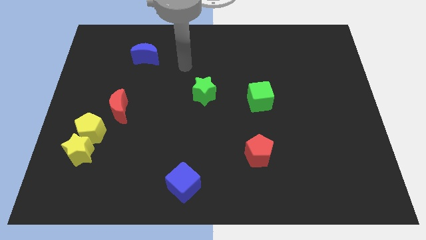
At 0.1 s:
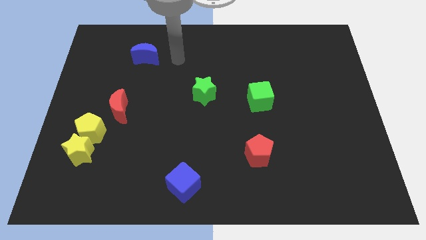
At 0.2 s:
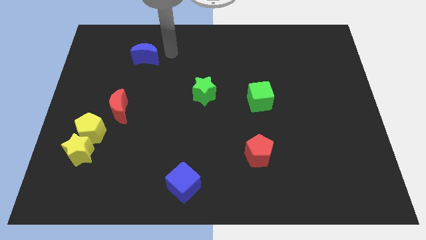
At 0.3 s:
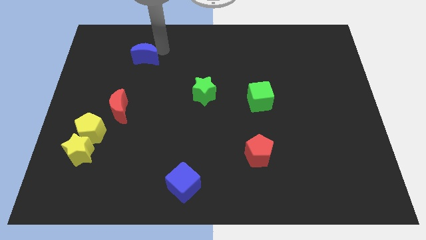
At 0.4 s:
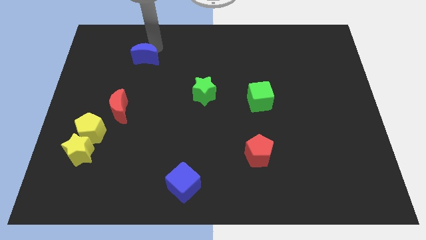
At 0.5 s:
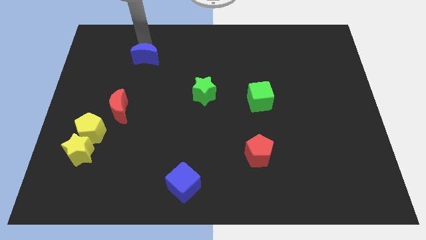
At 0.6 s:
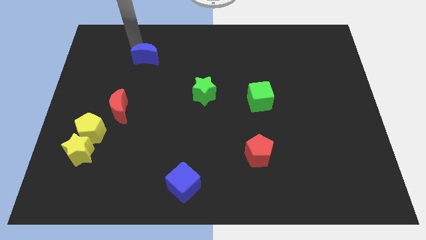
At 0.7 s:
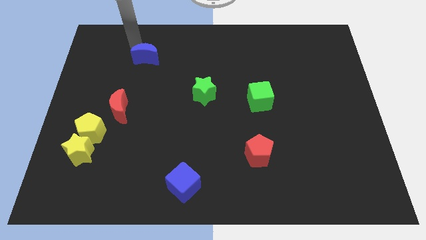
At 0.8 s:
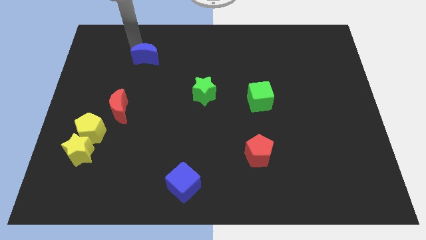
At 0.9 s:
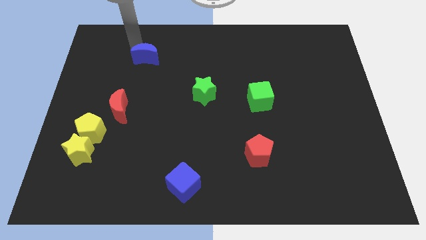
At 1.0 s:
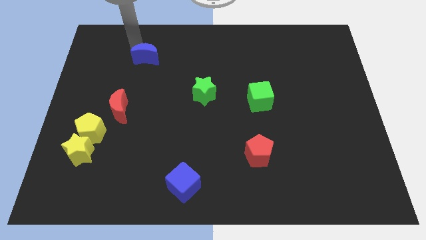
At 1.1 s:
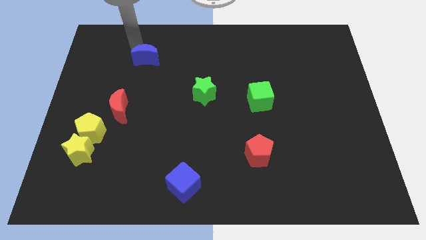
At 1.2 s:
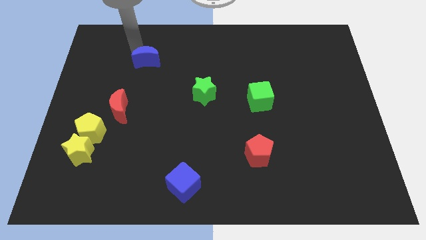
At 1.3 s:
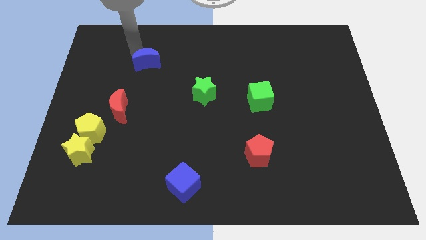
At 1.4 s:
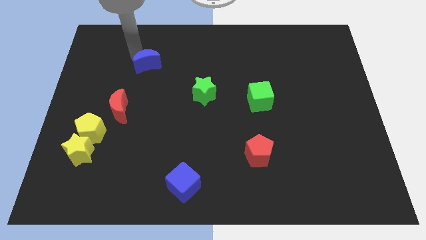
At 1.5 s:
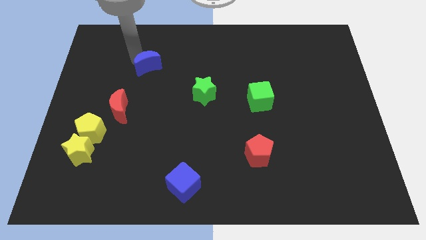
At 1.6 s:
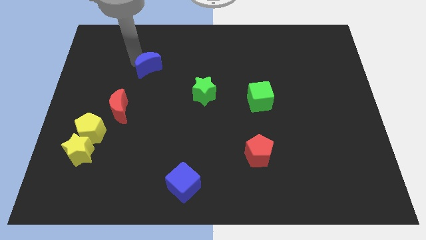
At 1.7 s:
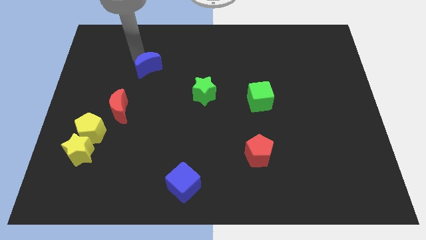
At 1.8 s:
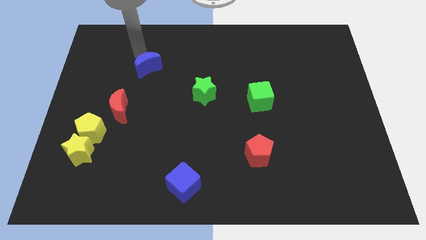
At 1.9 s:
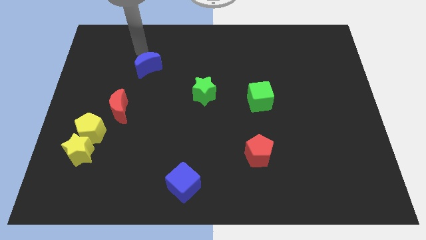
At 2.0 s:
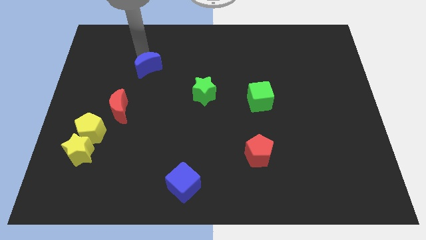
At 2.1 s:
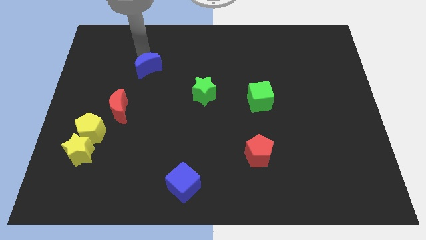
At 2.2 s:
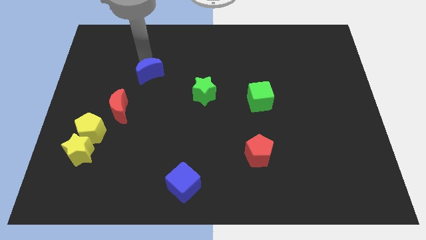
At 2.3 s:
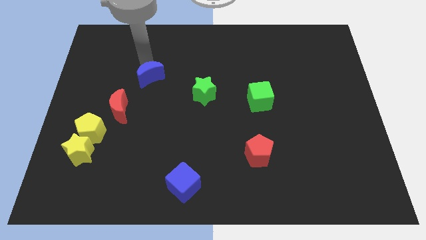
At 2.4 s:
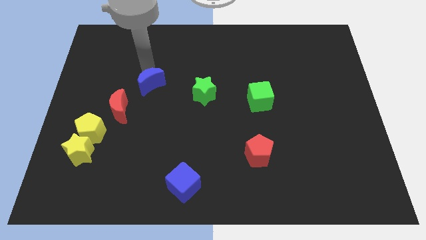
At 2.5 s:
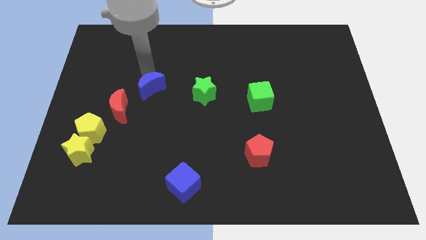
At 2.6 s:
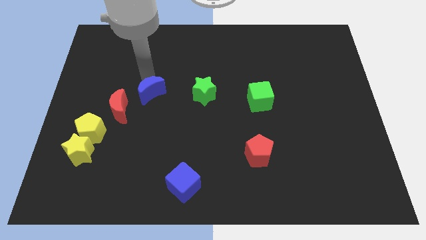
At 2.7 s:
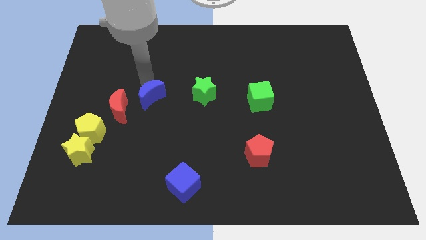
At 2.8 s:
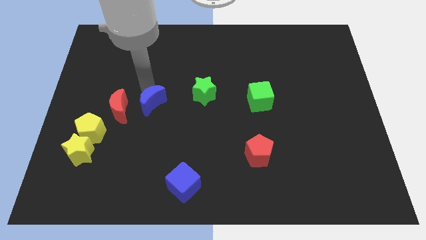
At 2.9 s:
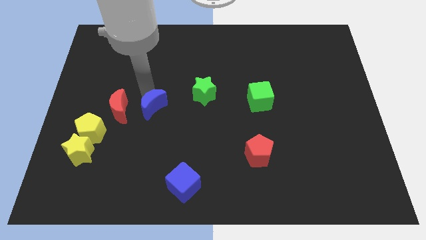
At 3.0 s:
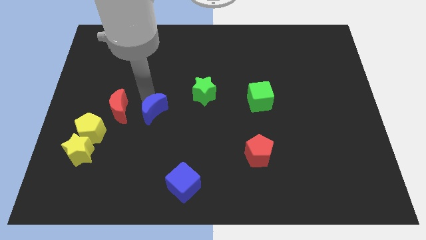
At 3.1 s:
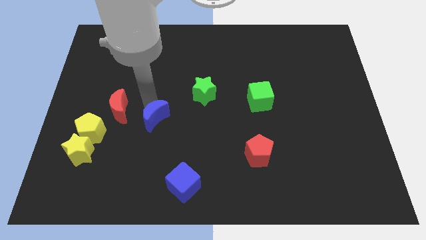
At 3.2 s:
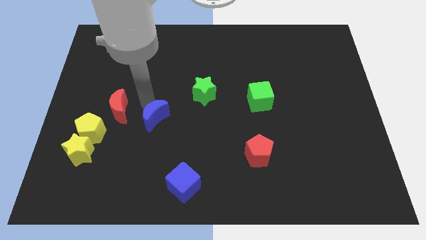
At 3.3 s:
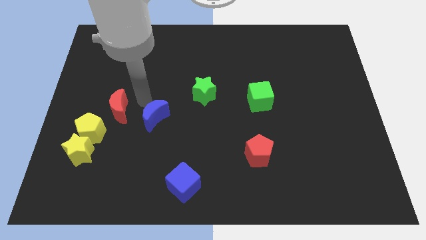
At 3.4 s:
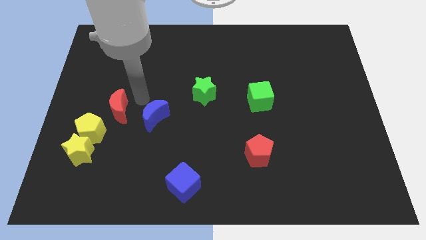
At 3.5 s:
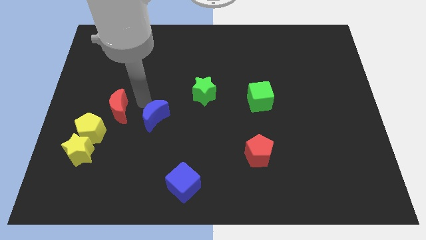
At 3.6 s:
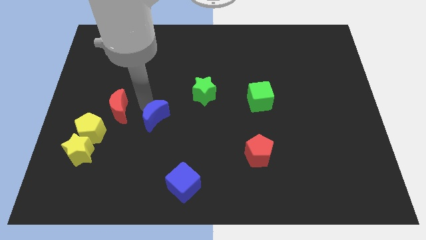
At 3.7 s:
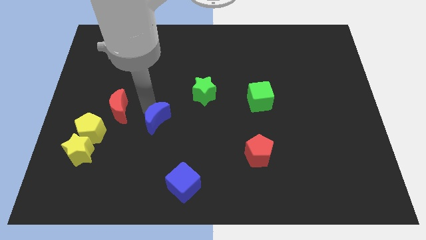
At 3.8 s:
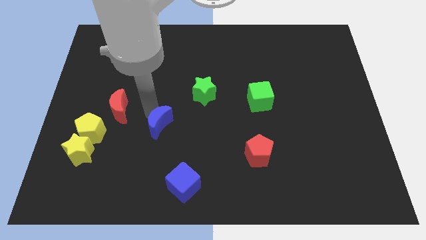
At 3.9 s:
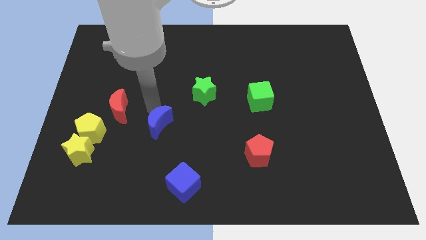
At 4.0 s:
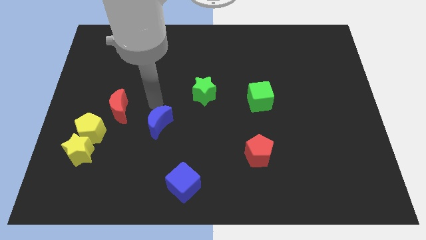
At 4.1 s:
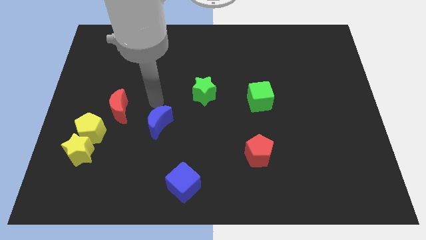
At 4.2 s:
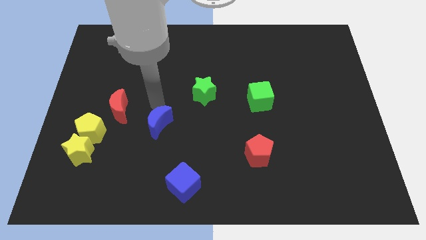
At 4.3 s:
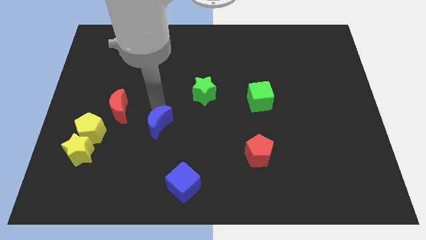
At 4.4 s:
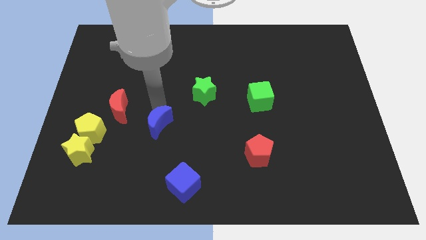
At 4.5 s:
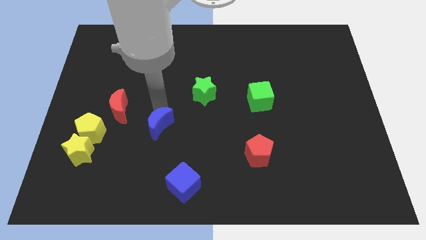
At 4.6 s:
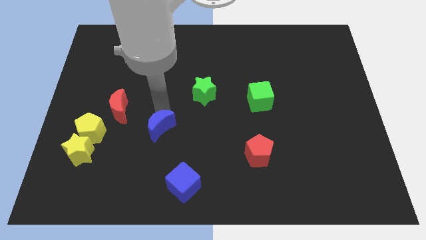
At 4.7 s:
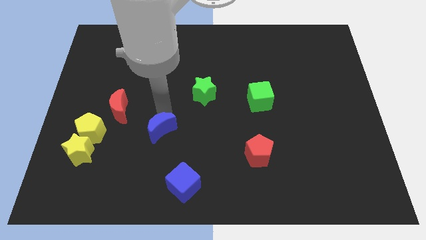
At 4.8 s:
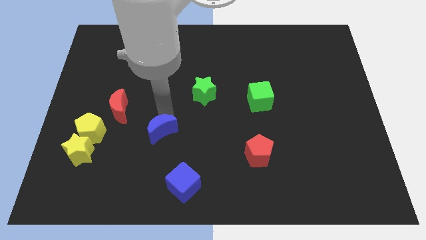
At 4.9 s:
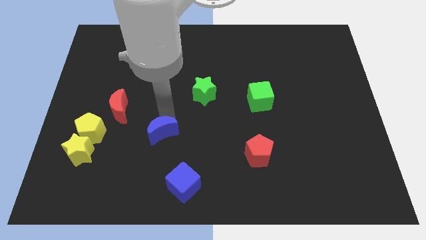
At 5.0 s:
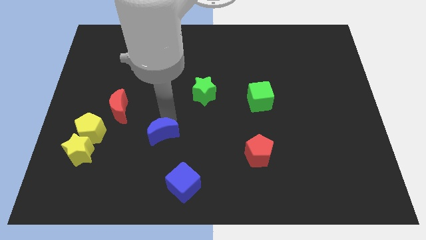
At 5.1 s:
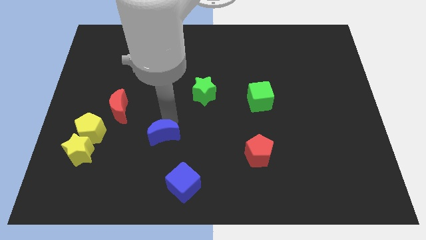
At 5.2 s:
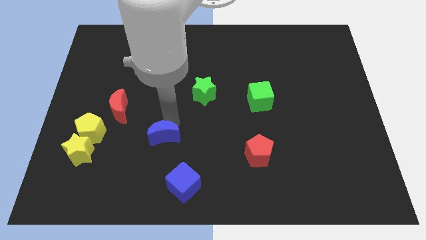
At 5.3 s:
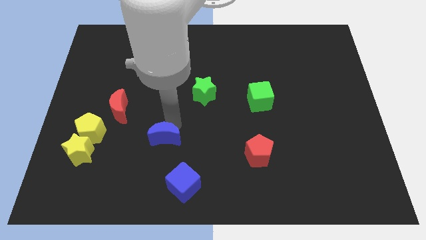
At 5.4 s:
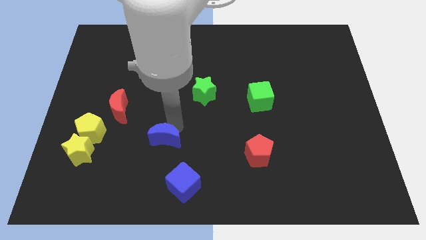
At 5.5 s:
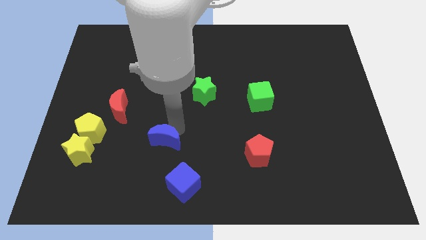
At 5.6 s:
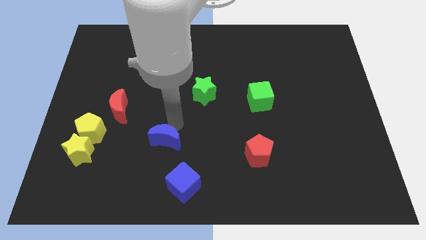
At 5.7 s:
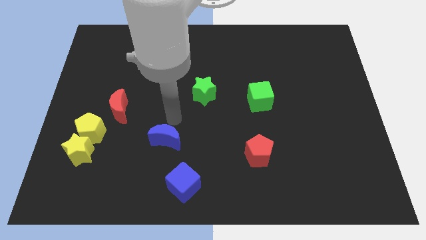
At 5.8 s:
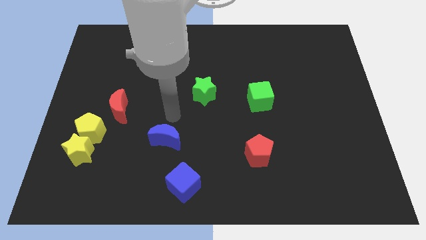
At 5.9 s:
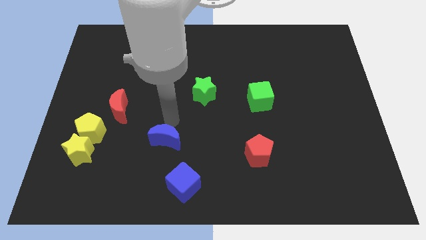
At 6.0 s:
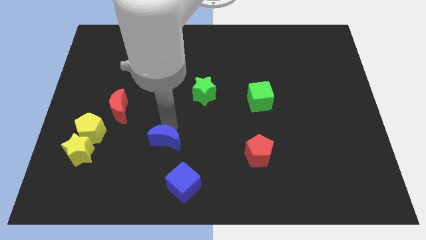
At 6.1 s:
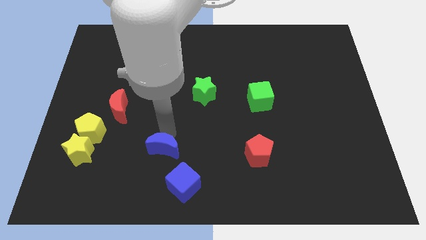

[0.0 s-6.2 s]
put the blue moon to the top left of the blue cube

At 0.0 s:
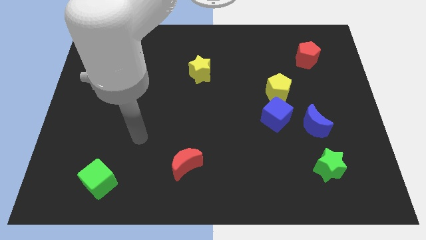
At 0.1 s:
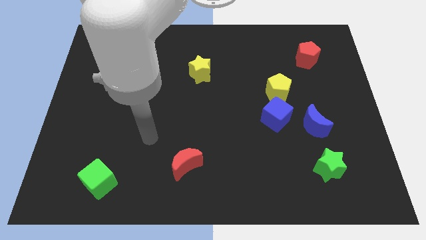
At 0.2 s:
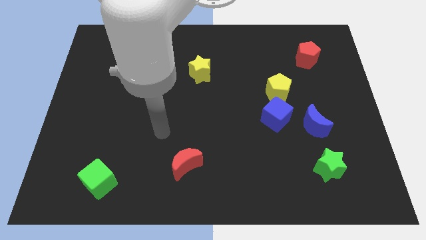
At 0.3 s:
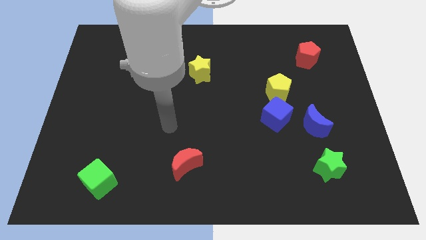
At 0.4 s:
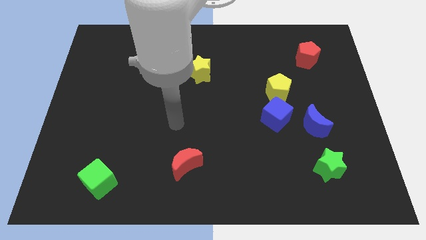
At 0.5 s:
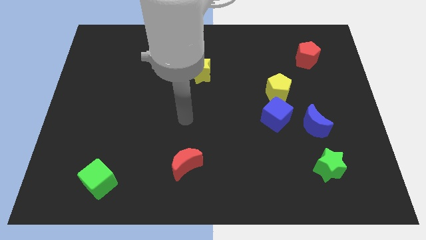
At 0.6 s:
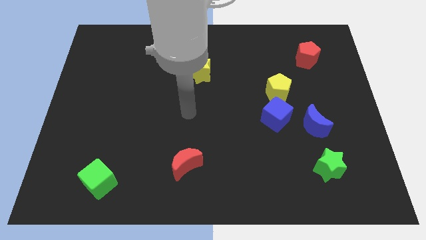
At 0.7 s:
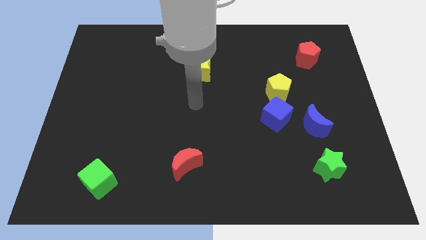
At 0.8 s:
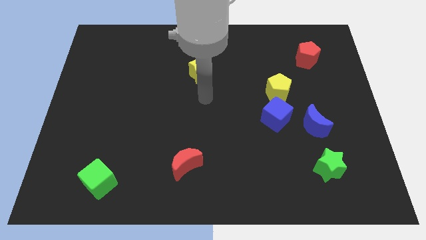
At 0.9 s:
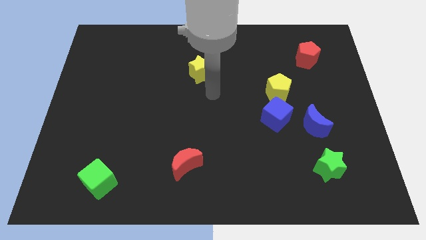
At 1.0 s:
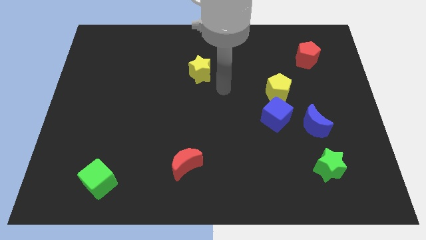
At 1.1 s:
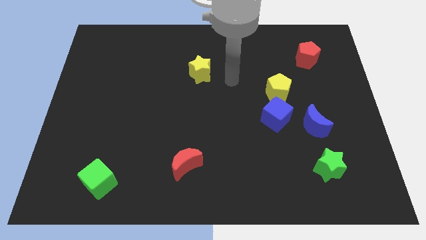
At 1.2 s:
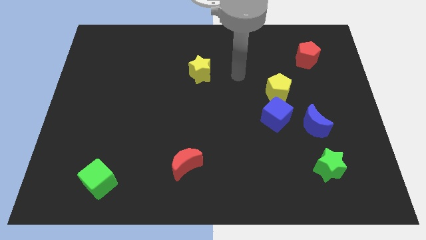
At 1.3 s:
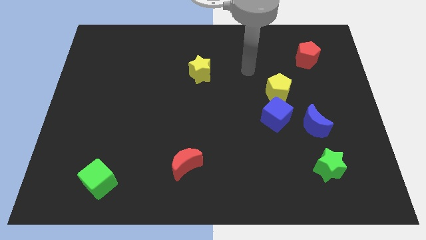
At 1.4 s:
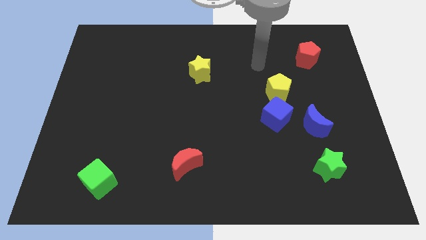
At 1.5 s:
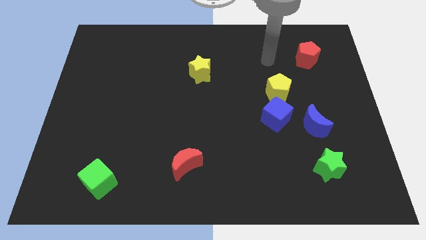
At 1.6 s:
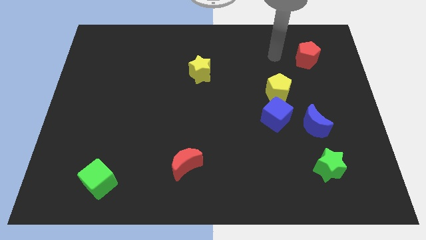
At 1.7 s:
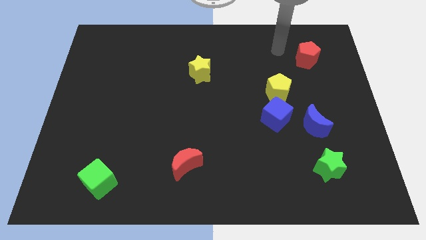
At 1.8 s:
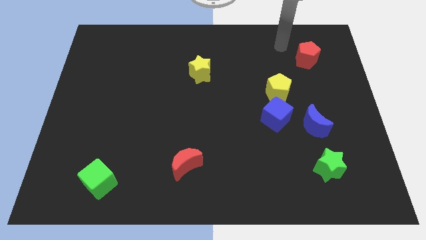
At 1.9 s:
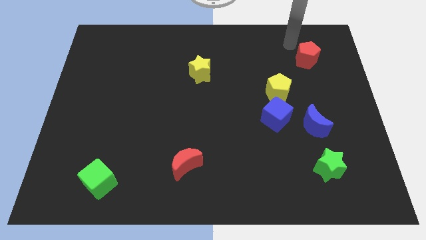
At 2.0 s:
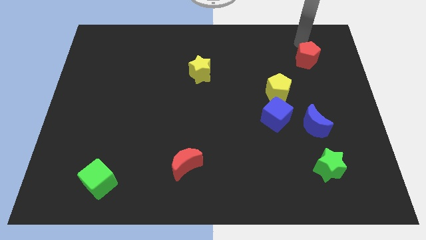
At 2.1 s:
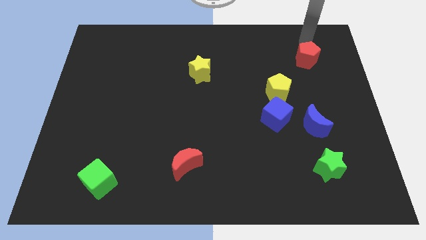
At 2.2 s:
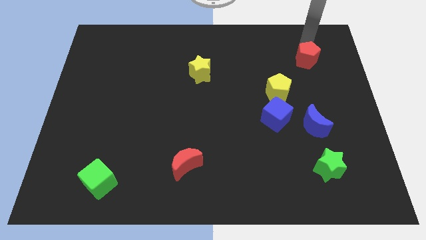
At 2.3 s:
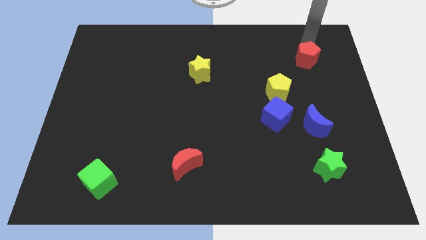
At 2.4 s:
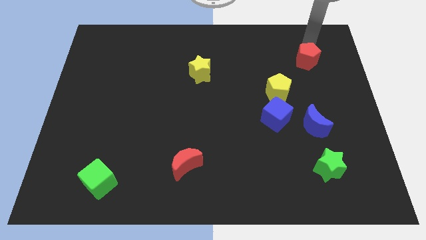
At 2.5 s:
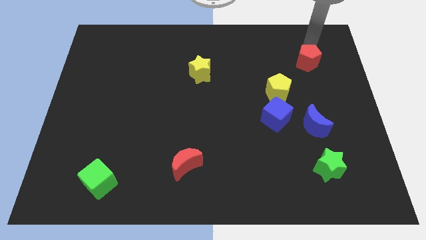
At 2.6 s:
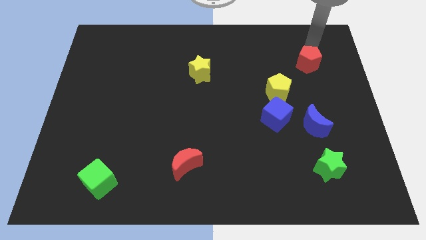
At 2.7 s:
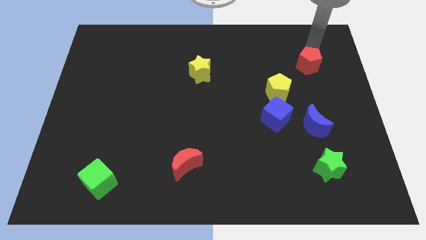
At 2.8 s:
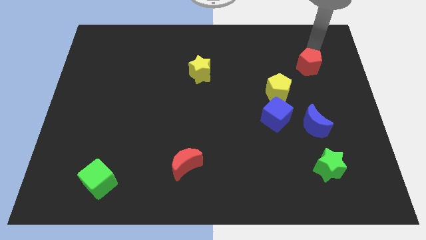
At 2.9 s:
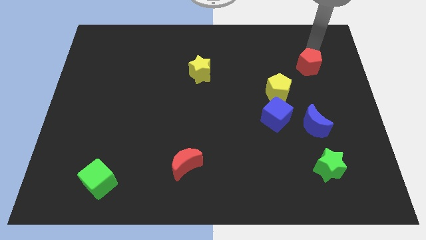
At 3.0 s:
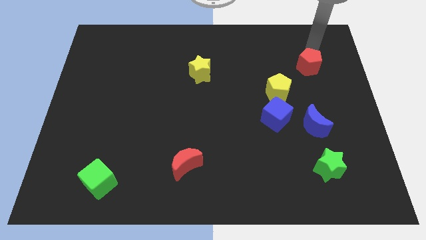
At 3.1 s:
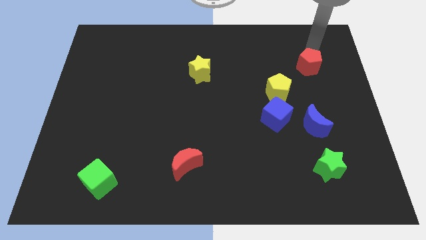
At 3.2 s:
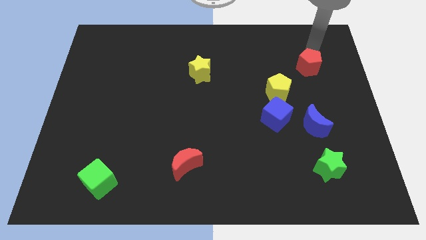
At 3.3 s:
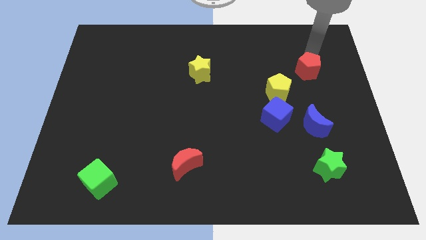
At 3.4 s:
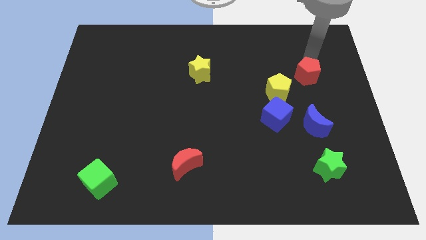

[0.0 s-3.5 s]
put the red pentagon to the top side of the blue moon
